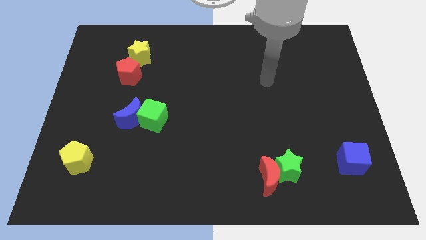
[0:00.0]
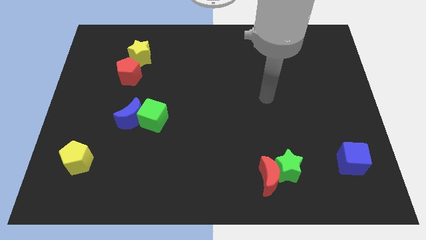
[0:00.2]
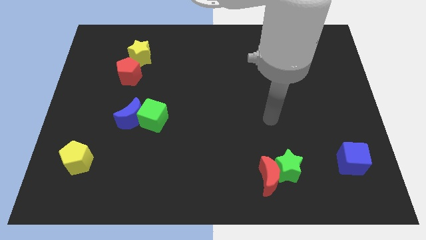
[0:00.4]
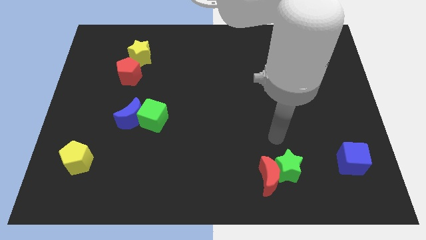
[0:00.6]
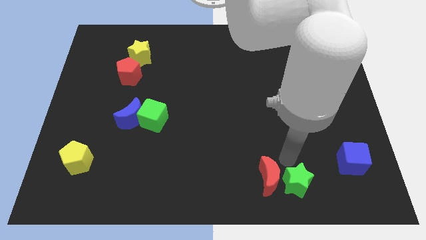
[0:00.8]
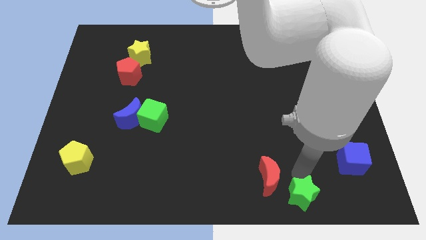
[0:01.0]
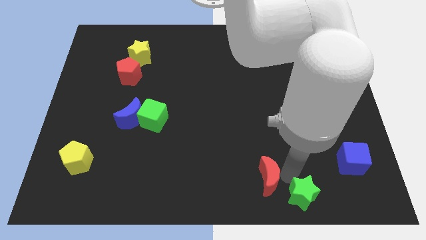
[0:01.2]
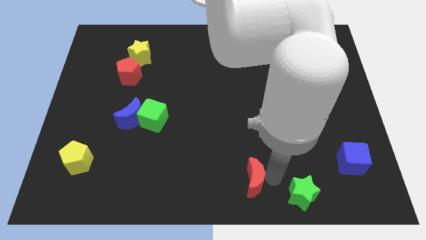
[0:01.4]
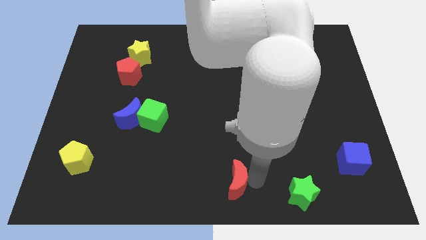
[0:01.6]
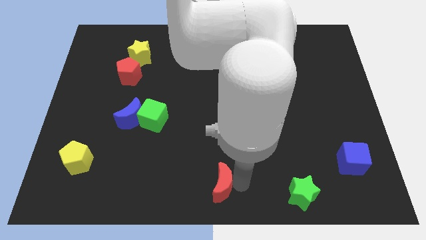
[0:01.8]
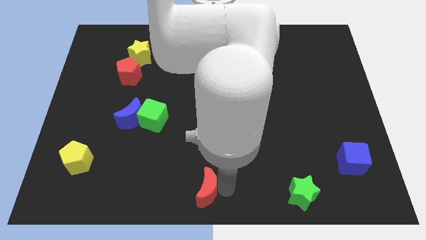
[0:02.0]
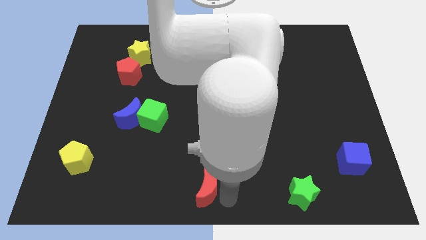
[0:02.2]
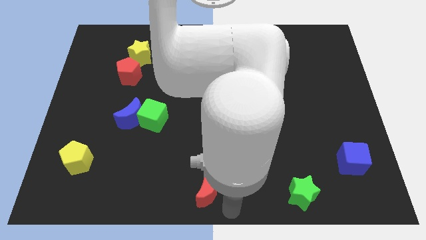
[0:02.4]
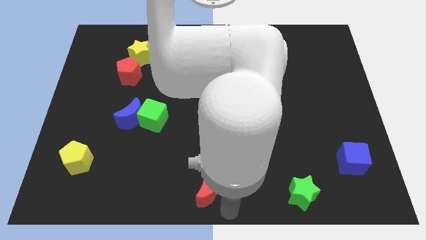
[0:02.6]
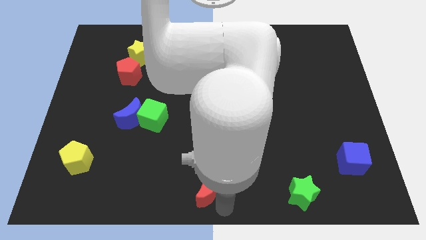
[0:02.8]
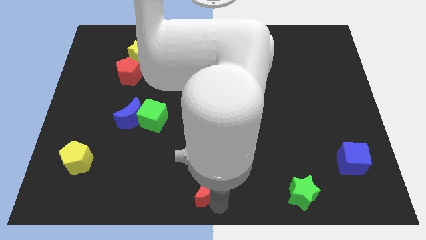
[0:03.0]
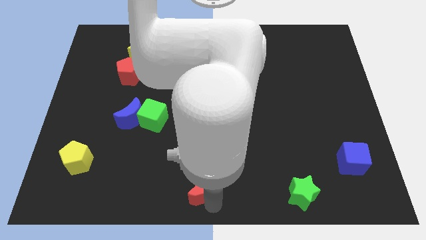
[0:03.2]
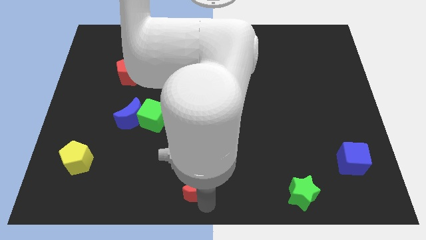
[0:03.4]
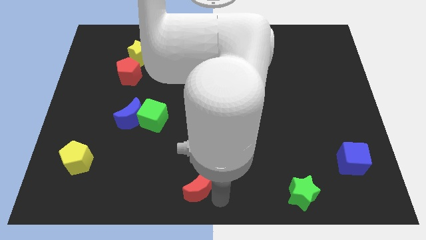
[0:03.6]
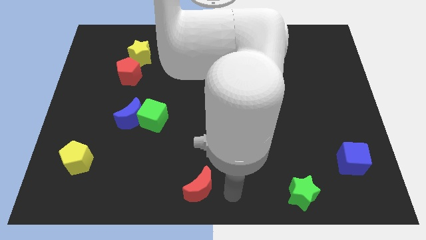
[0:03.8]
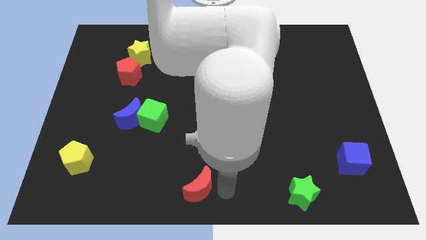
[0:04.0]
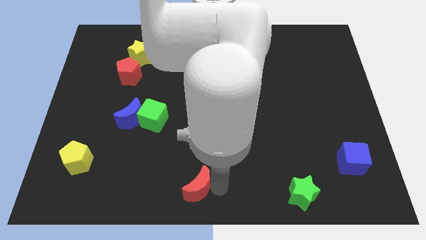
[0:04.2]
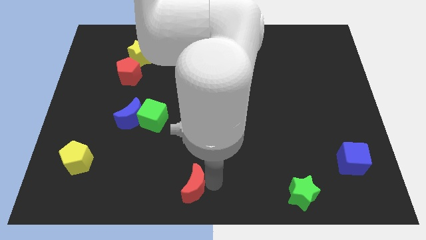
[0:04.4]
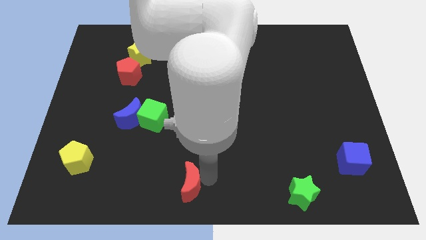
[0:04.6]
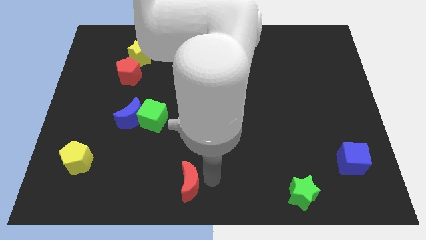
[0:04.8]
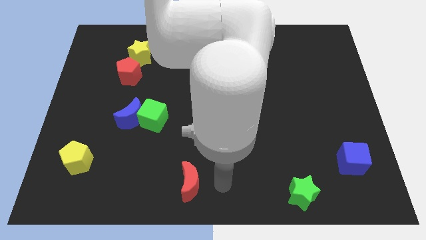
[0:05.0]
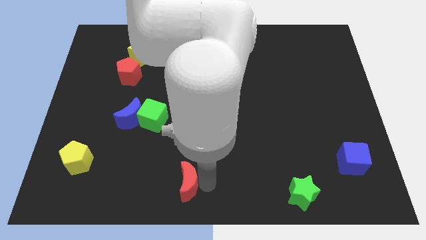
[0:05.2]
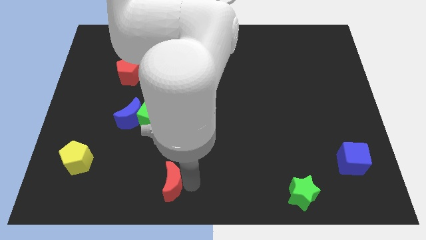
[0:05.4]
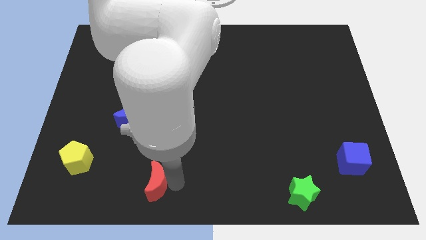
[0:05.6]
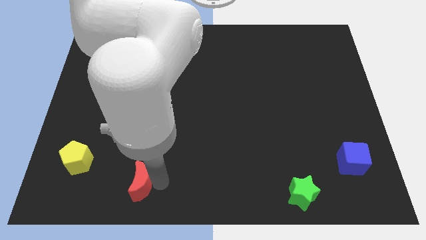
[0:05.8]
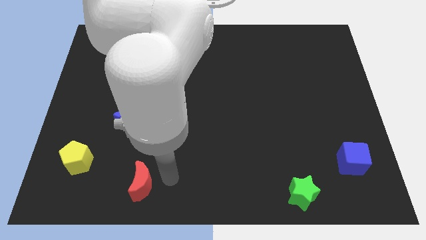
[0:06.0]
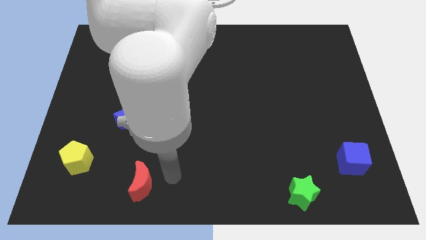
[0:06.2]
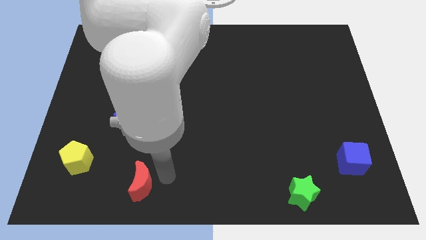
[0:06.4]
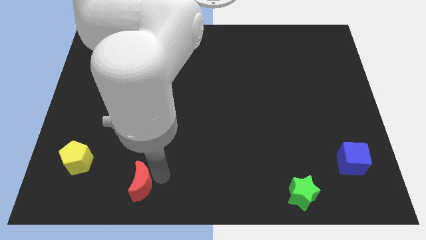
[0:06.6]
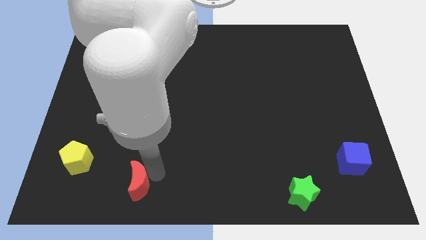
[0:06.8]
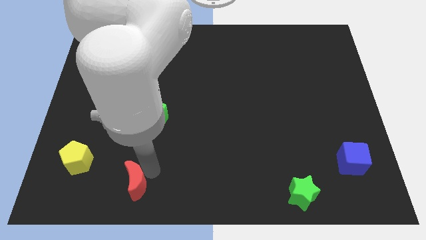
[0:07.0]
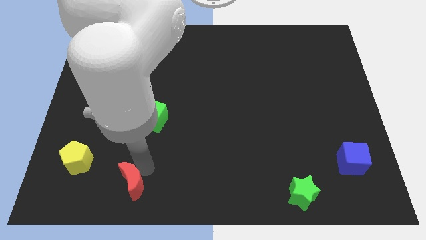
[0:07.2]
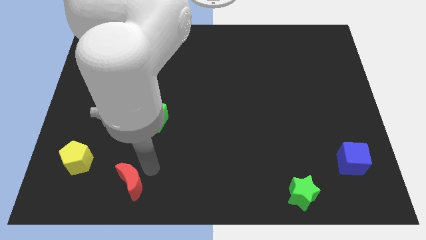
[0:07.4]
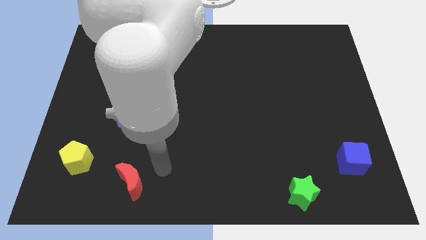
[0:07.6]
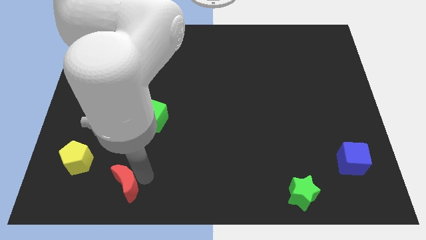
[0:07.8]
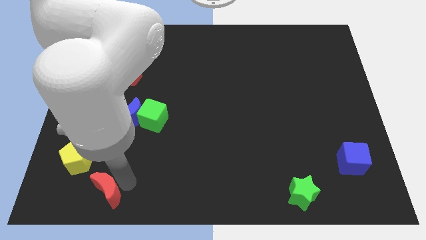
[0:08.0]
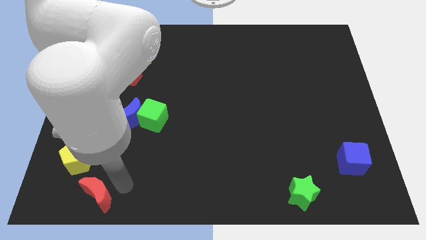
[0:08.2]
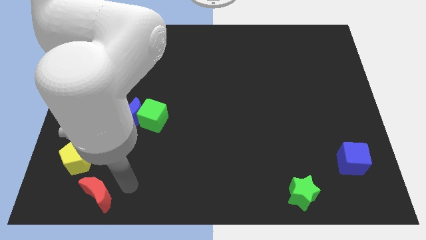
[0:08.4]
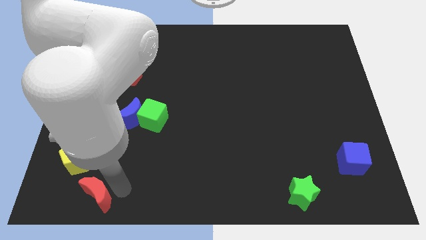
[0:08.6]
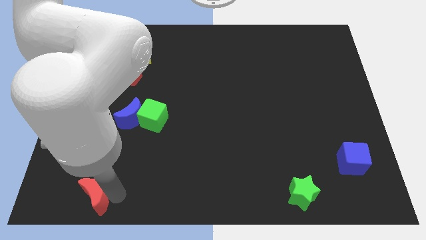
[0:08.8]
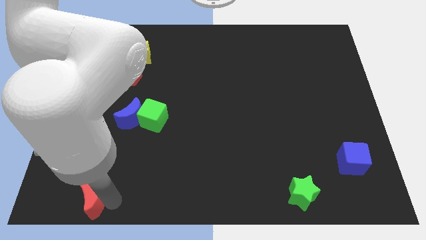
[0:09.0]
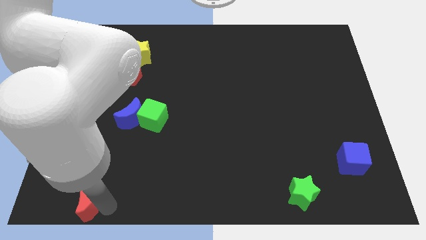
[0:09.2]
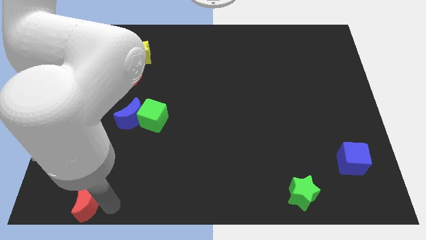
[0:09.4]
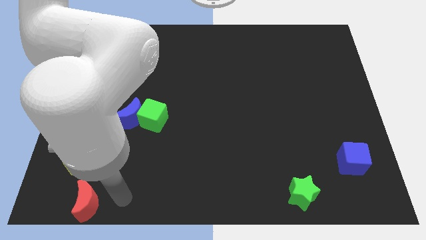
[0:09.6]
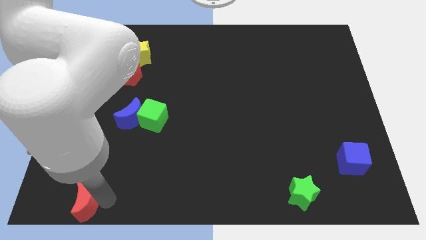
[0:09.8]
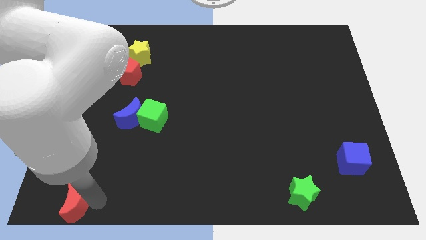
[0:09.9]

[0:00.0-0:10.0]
put the red moon to the bottom left of the board

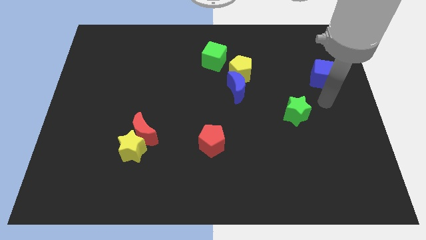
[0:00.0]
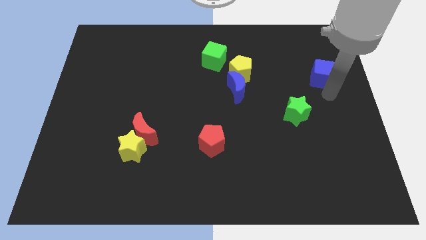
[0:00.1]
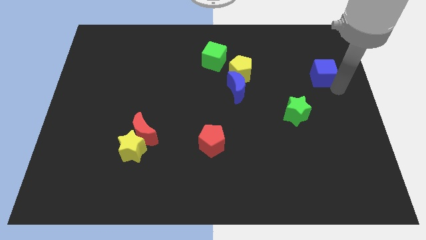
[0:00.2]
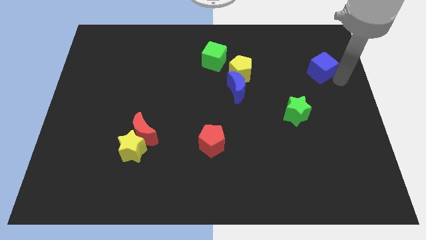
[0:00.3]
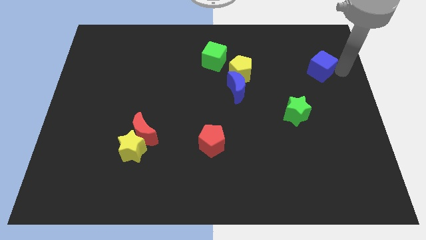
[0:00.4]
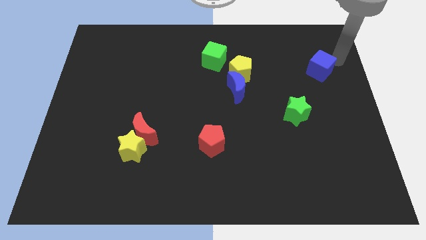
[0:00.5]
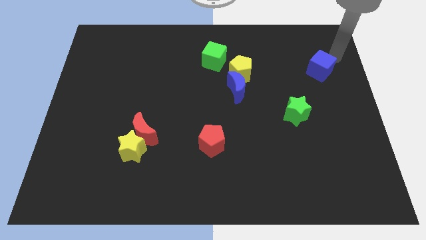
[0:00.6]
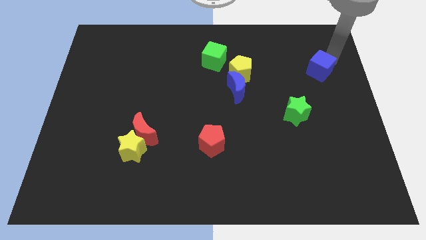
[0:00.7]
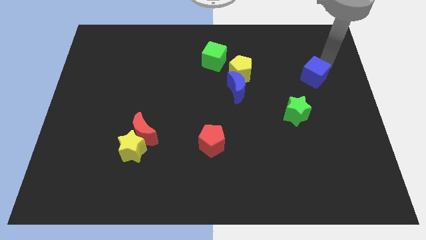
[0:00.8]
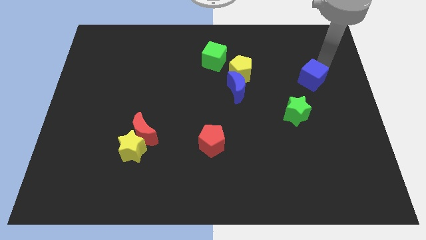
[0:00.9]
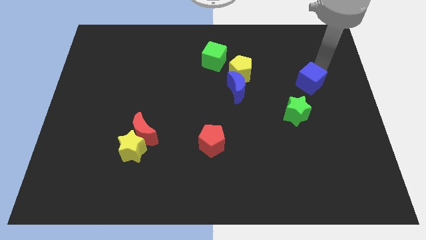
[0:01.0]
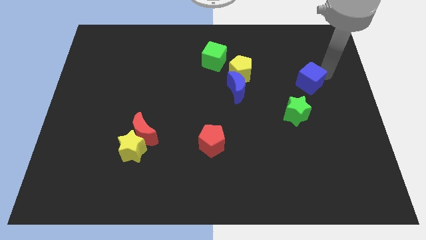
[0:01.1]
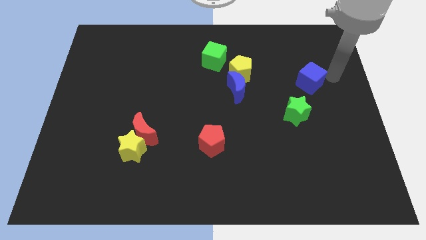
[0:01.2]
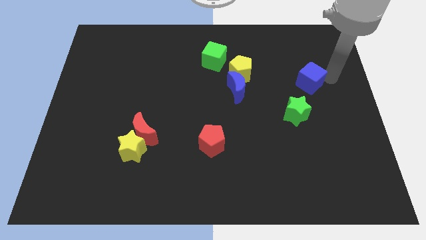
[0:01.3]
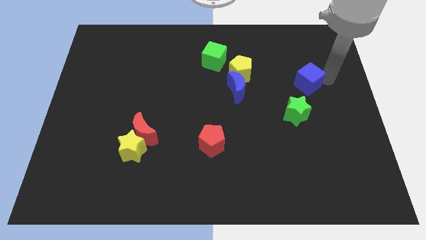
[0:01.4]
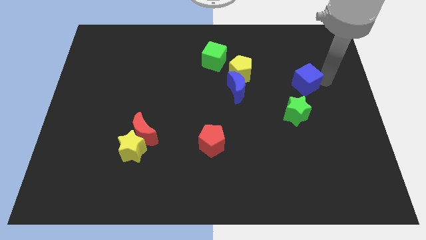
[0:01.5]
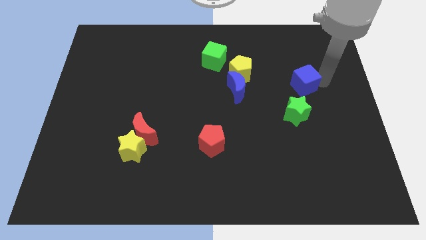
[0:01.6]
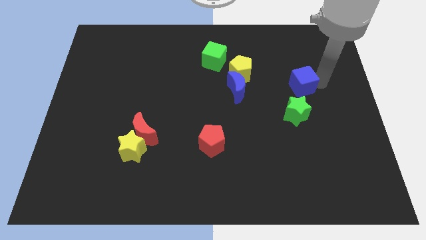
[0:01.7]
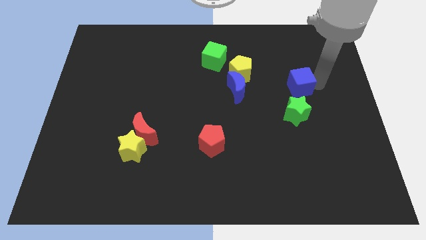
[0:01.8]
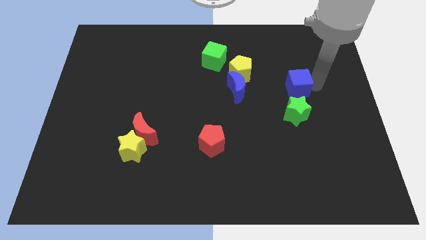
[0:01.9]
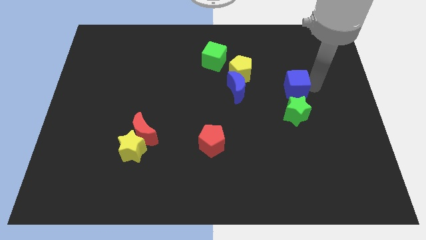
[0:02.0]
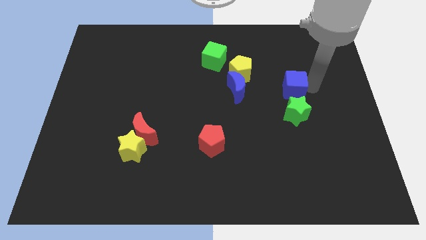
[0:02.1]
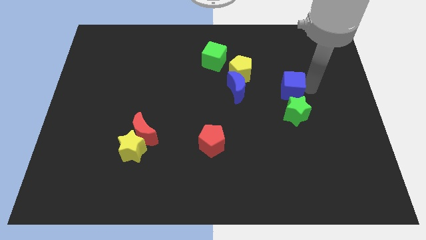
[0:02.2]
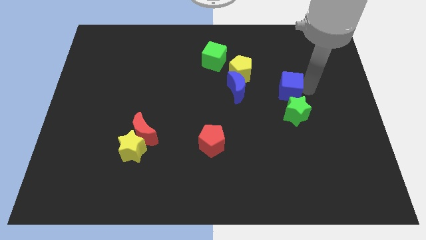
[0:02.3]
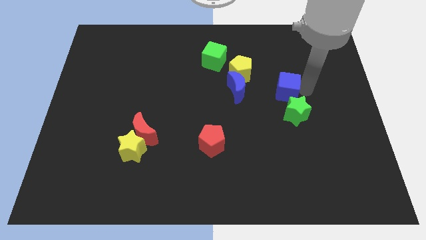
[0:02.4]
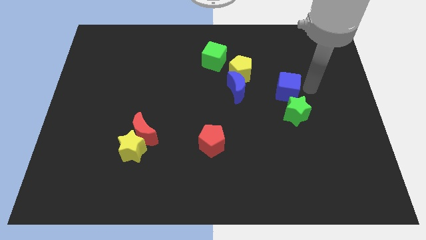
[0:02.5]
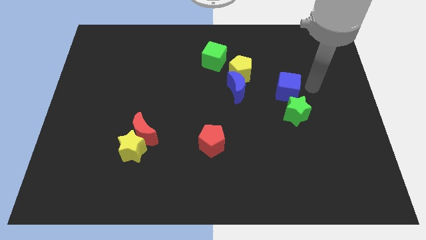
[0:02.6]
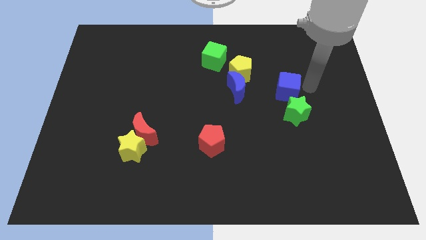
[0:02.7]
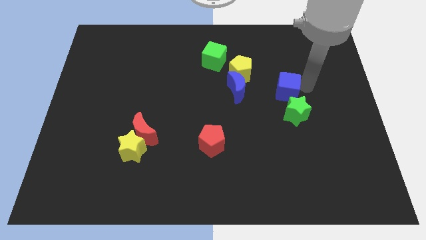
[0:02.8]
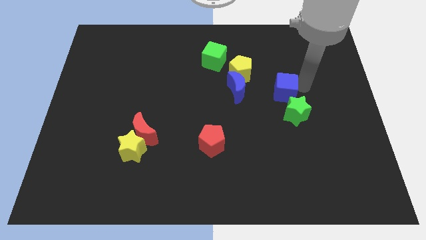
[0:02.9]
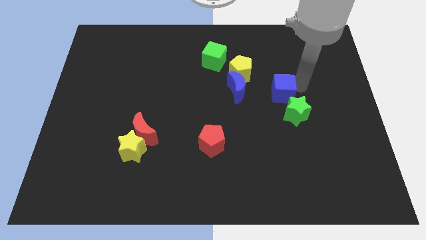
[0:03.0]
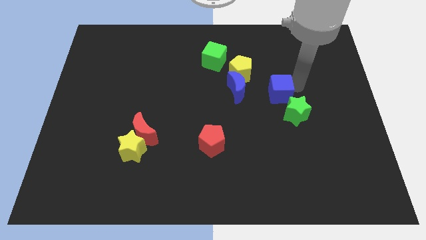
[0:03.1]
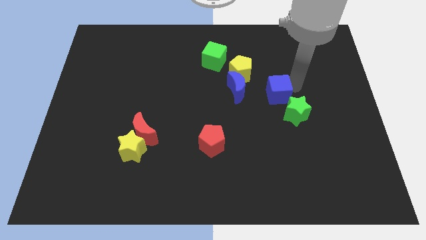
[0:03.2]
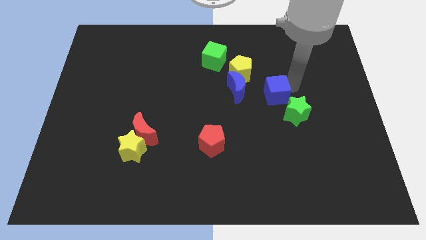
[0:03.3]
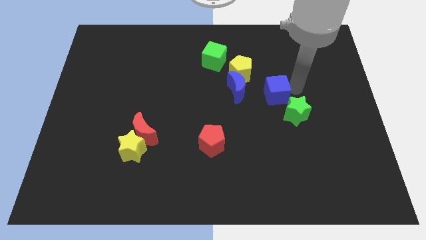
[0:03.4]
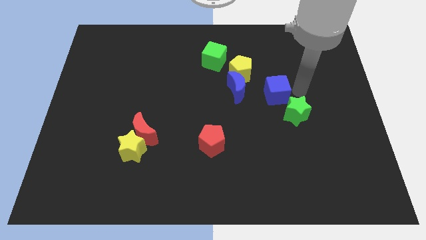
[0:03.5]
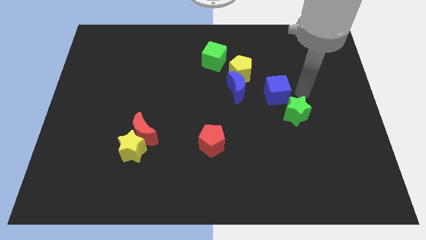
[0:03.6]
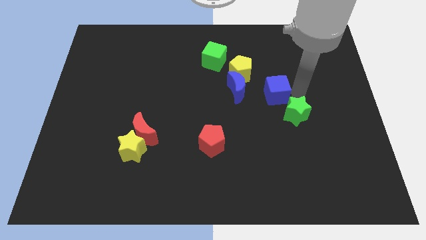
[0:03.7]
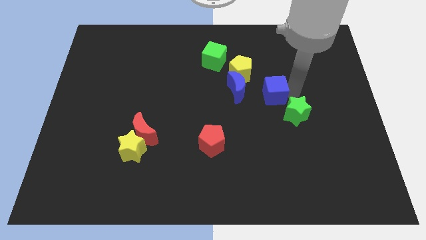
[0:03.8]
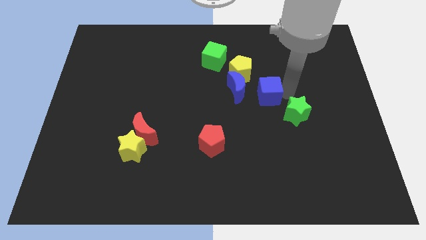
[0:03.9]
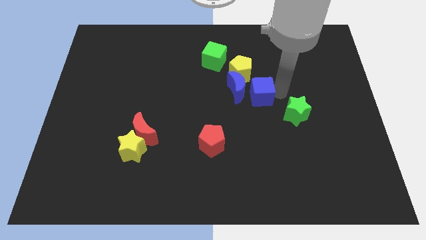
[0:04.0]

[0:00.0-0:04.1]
slide the blue cube to the middle
